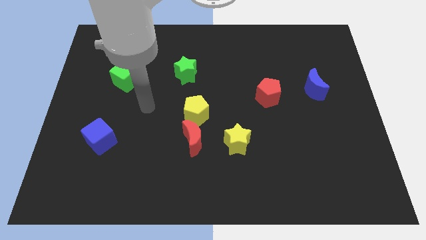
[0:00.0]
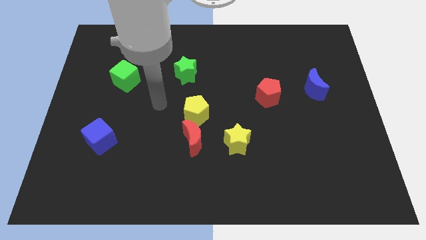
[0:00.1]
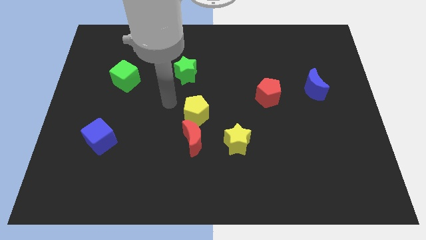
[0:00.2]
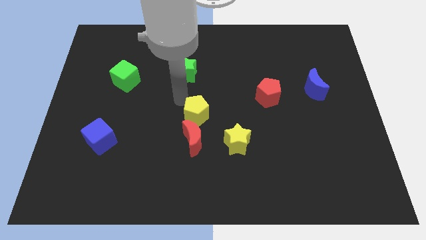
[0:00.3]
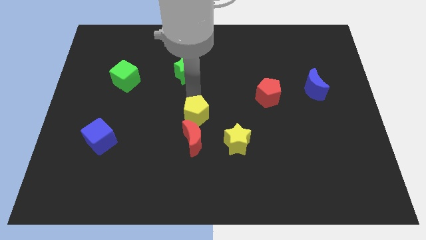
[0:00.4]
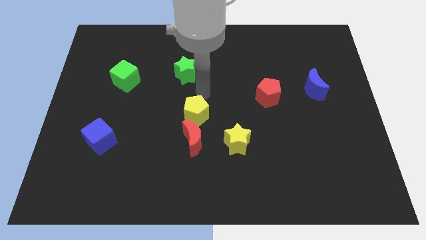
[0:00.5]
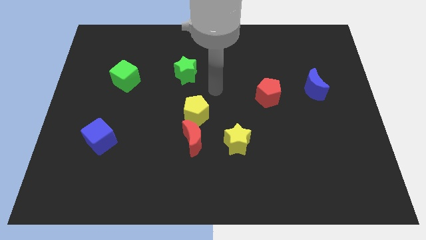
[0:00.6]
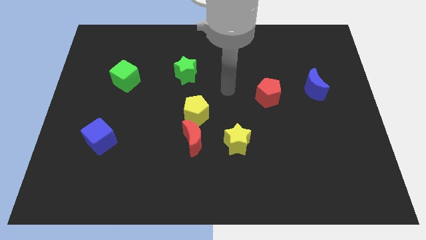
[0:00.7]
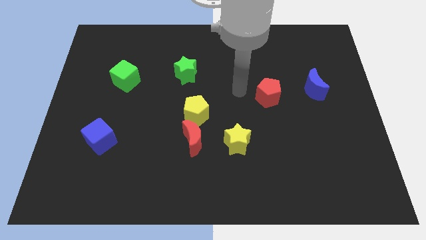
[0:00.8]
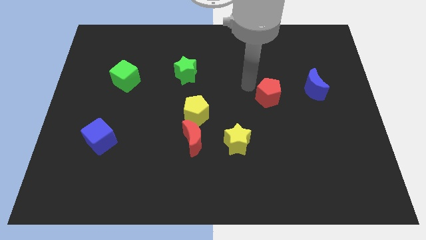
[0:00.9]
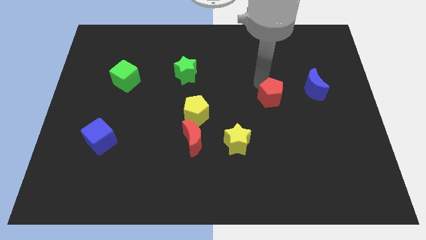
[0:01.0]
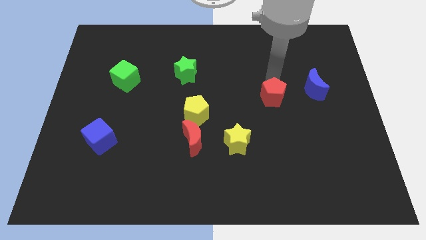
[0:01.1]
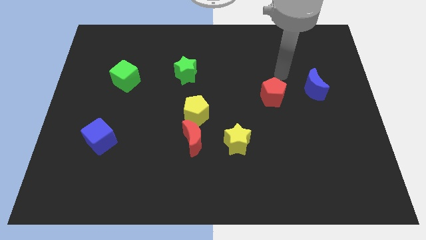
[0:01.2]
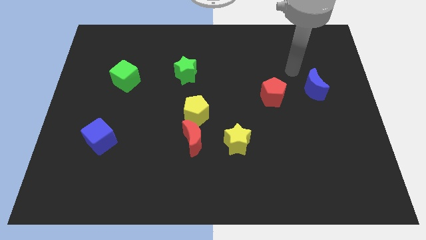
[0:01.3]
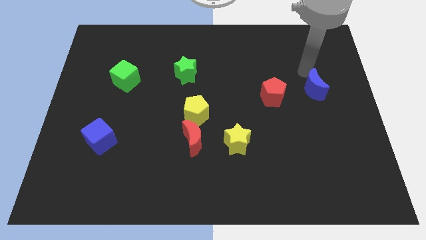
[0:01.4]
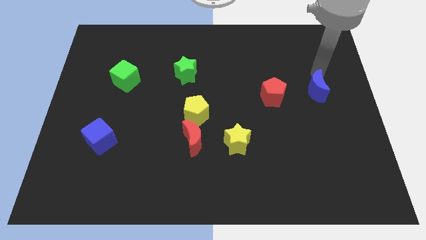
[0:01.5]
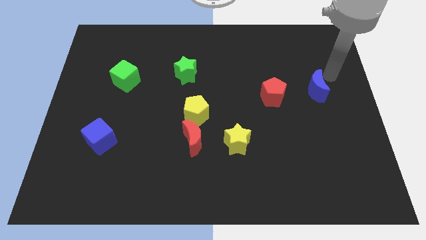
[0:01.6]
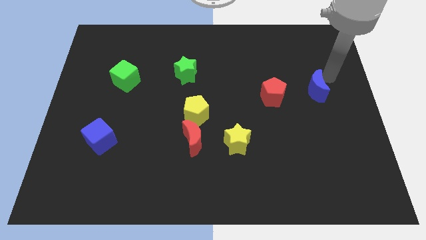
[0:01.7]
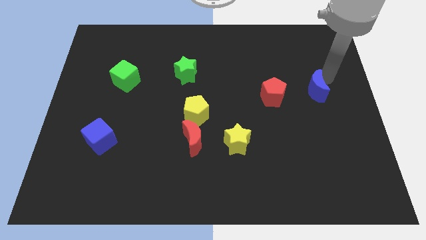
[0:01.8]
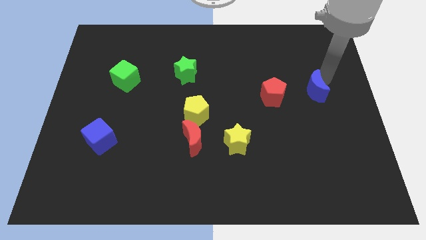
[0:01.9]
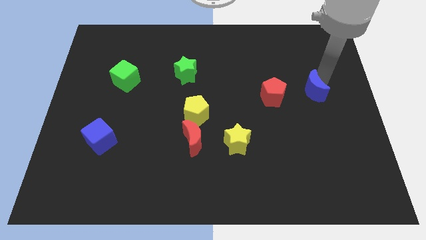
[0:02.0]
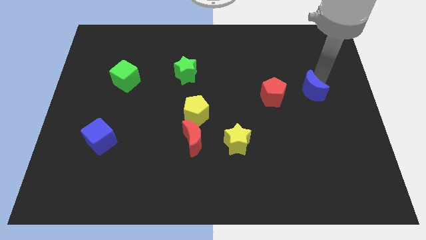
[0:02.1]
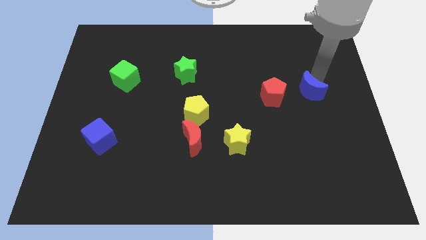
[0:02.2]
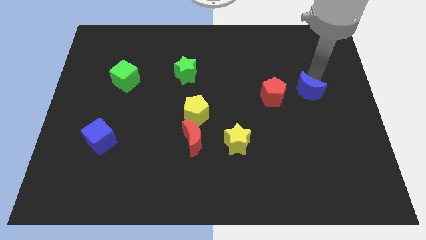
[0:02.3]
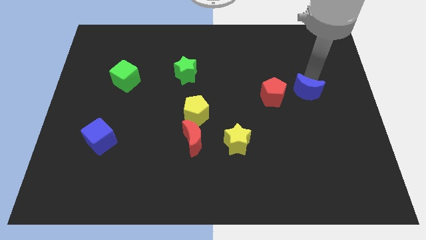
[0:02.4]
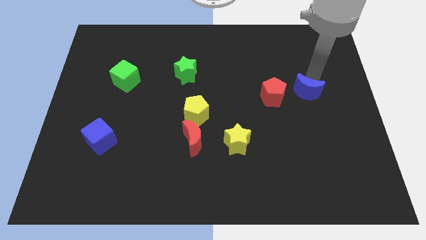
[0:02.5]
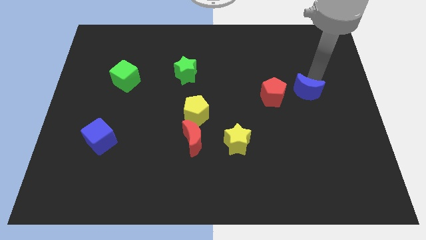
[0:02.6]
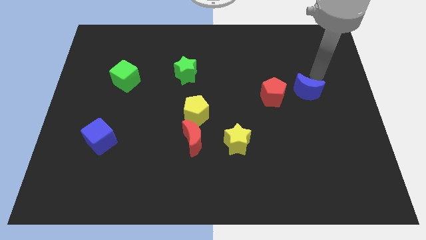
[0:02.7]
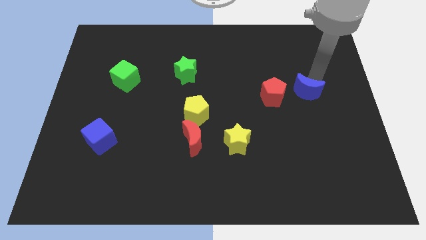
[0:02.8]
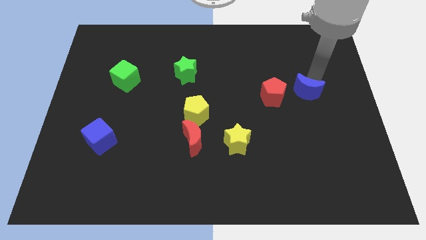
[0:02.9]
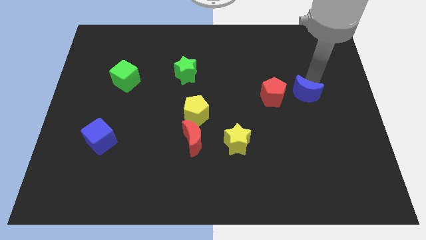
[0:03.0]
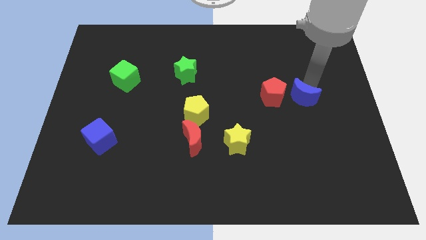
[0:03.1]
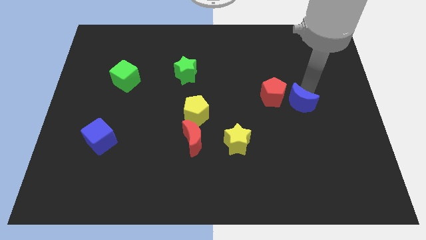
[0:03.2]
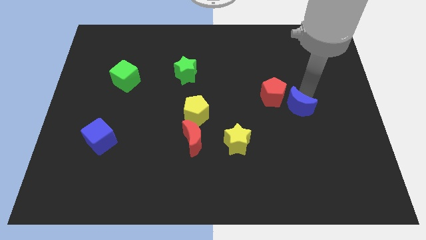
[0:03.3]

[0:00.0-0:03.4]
slide the blue moon somewhat downwards and then left

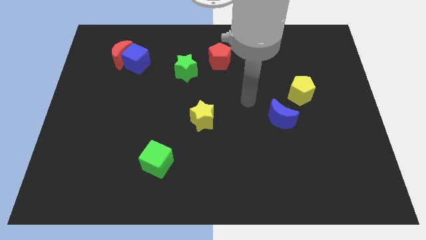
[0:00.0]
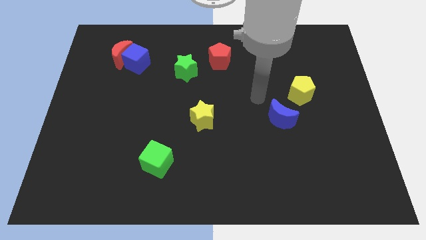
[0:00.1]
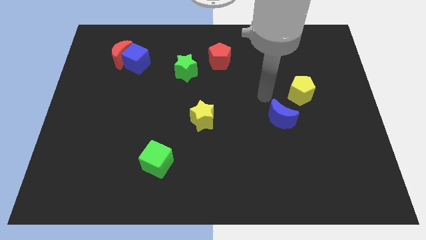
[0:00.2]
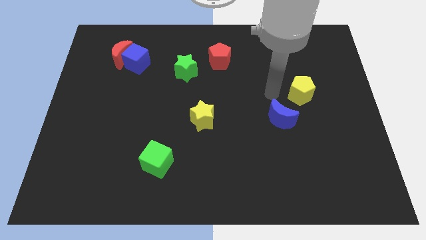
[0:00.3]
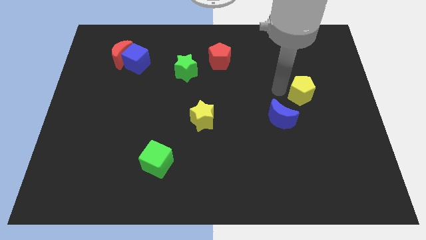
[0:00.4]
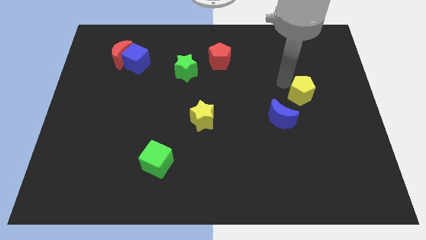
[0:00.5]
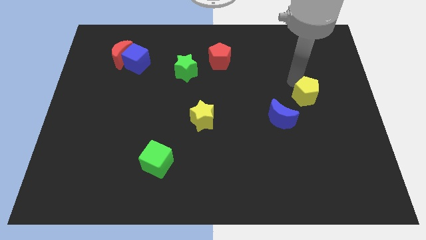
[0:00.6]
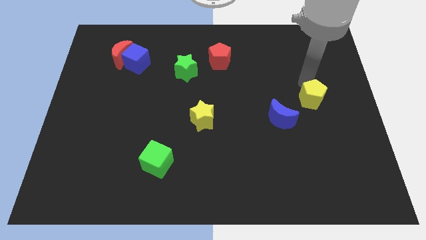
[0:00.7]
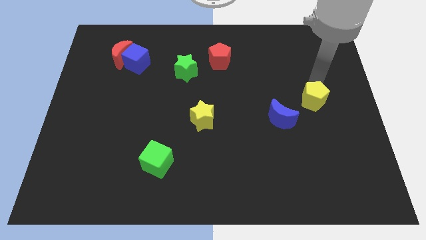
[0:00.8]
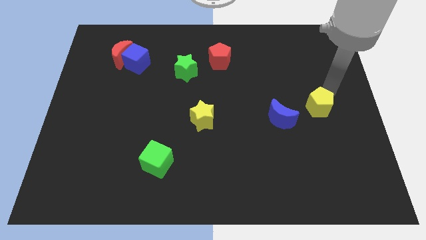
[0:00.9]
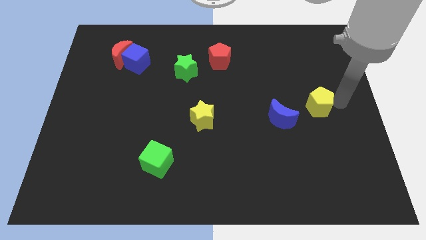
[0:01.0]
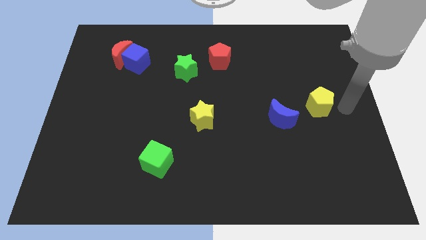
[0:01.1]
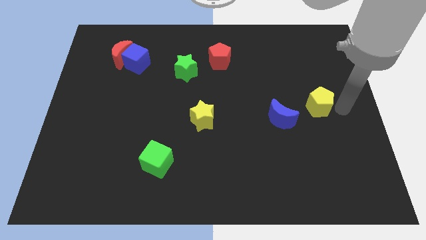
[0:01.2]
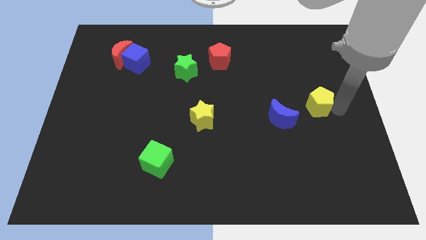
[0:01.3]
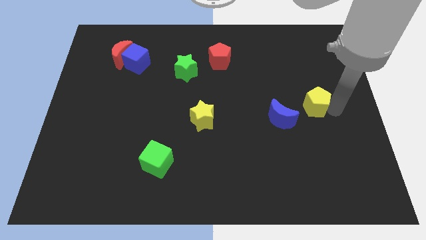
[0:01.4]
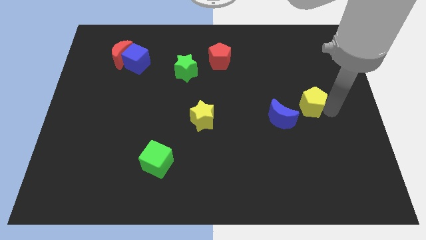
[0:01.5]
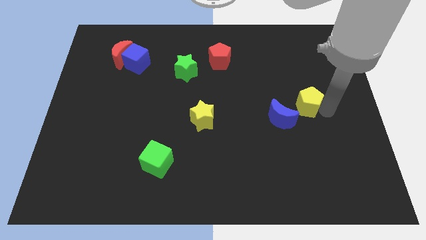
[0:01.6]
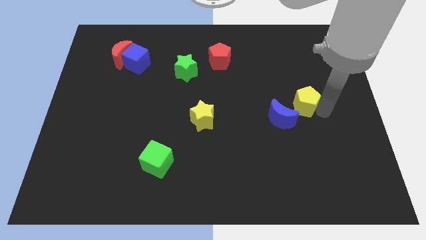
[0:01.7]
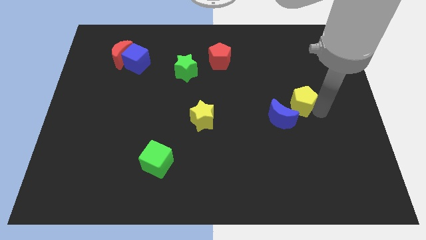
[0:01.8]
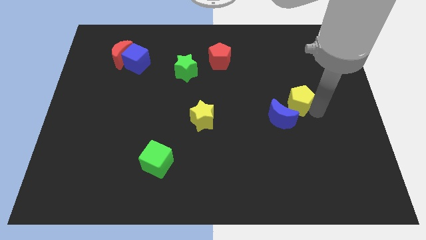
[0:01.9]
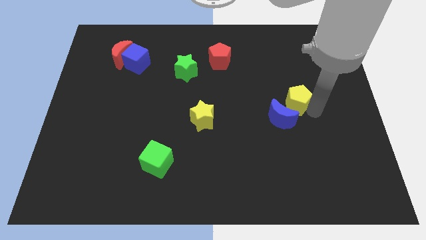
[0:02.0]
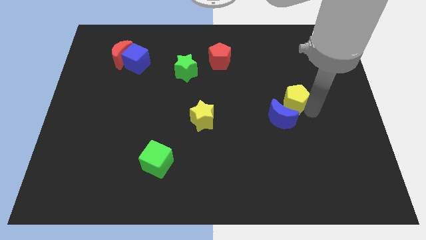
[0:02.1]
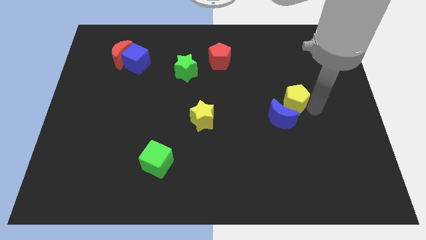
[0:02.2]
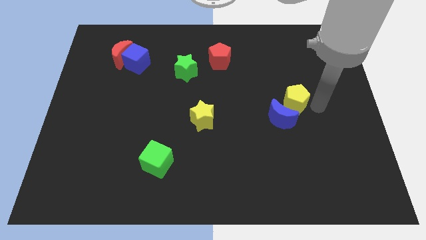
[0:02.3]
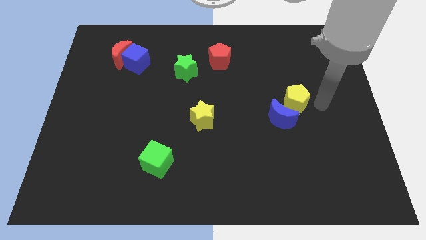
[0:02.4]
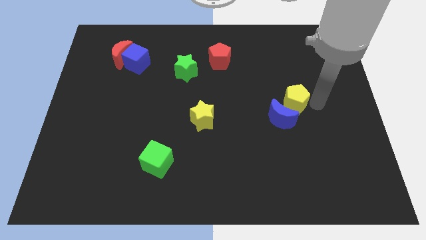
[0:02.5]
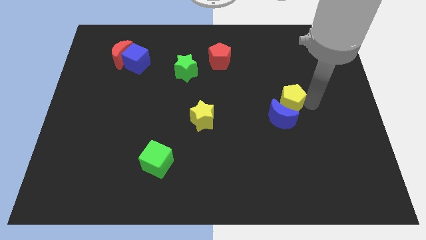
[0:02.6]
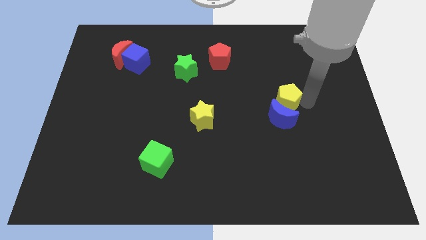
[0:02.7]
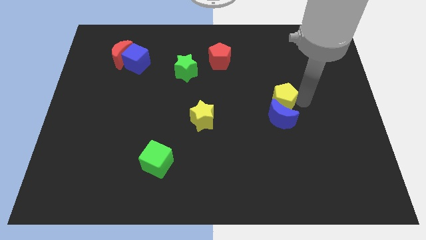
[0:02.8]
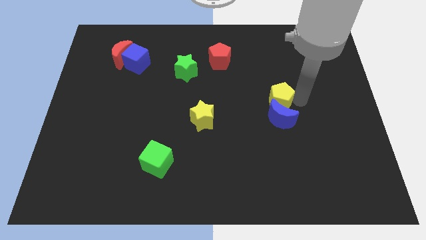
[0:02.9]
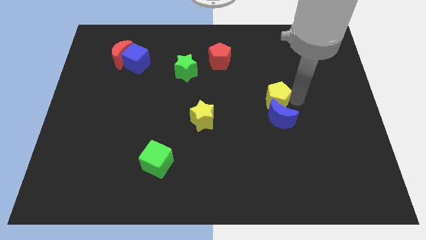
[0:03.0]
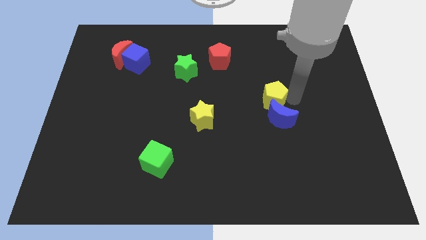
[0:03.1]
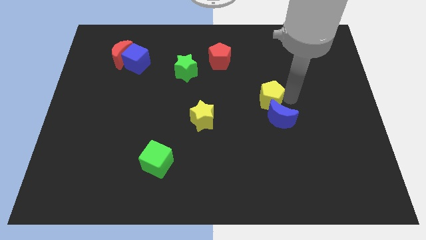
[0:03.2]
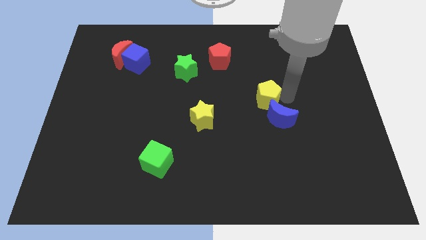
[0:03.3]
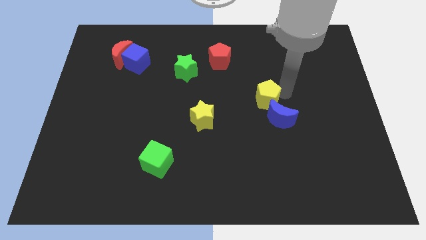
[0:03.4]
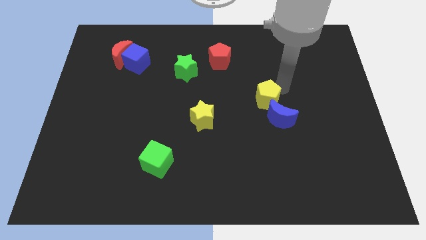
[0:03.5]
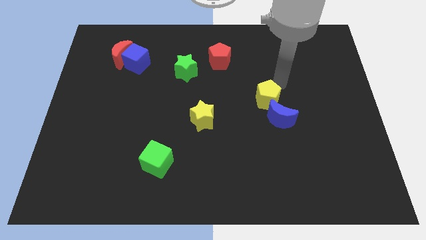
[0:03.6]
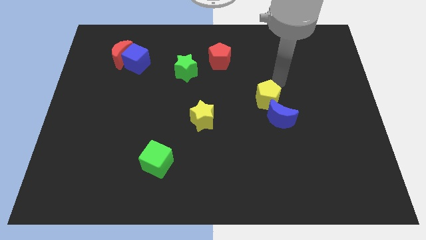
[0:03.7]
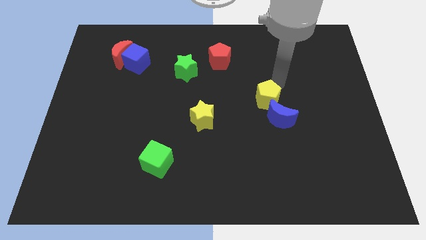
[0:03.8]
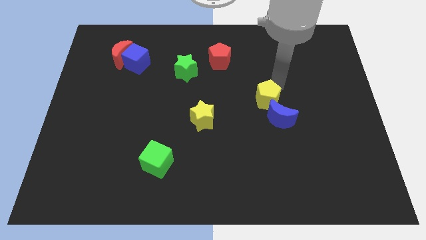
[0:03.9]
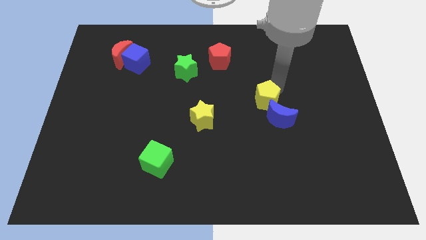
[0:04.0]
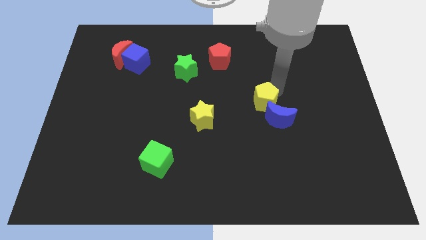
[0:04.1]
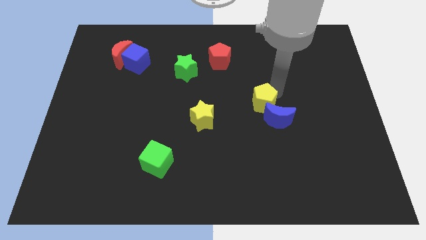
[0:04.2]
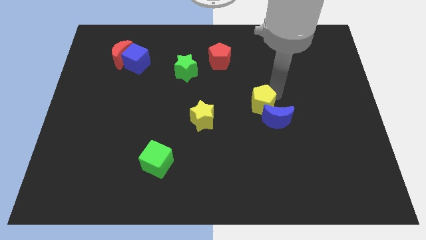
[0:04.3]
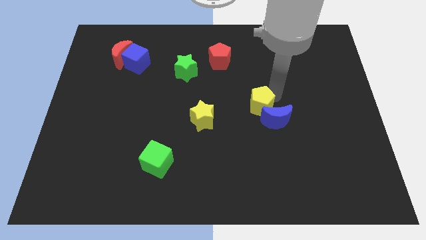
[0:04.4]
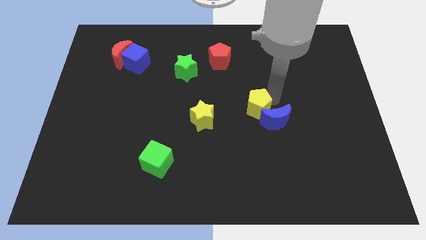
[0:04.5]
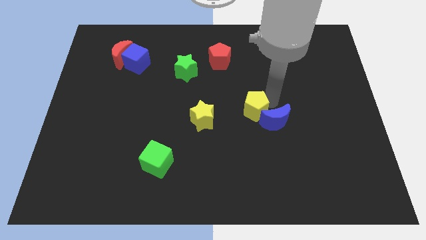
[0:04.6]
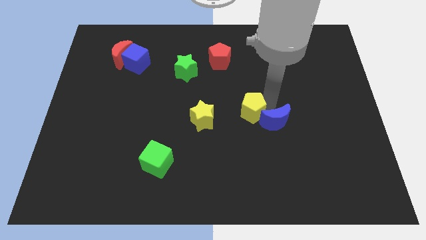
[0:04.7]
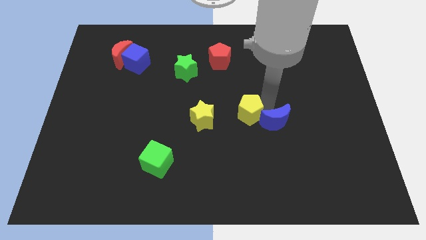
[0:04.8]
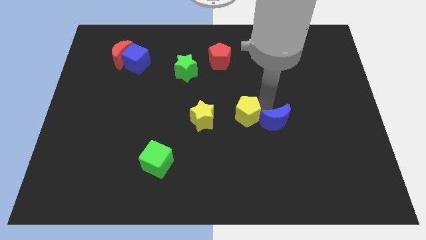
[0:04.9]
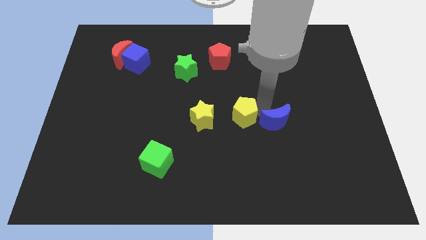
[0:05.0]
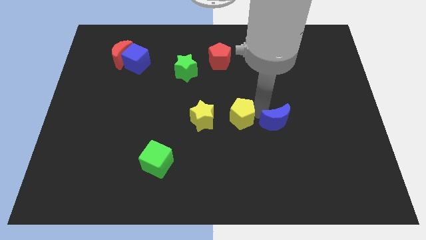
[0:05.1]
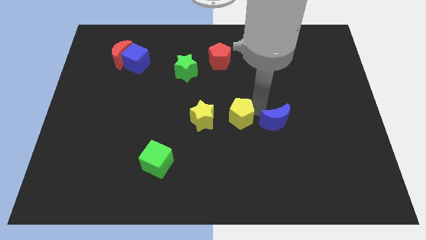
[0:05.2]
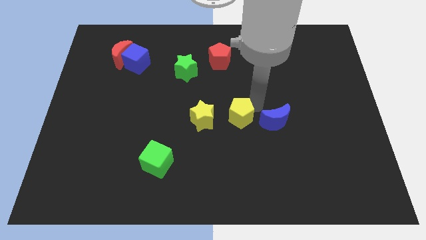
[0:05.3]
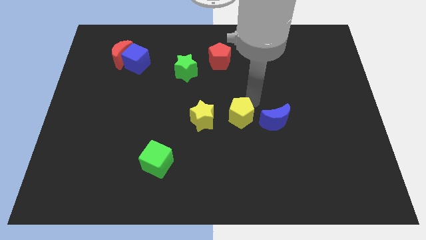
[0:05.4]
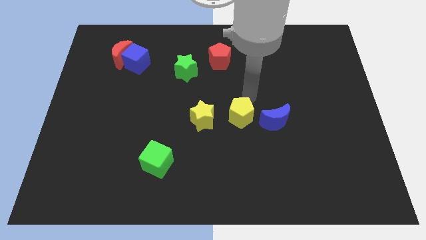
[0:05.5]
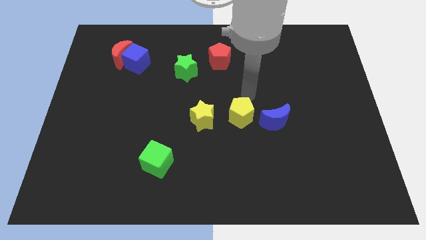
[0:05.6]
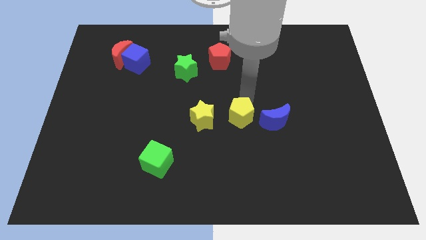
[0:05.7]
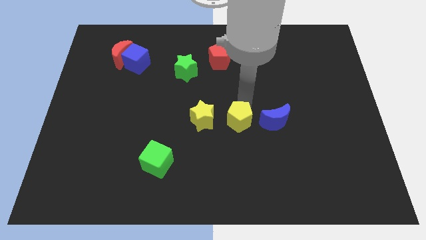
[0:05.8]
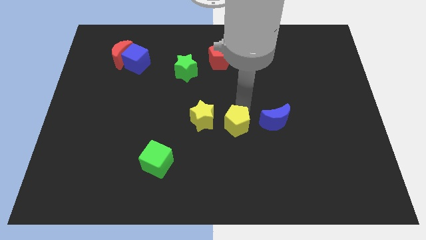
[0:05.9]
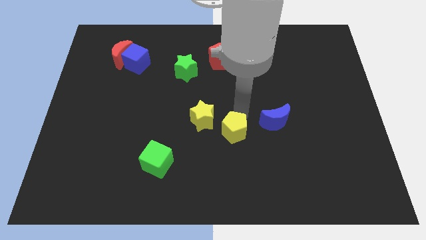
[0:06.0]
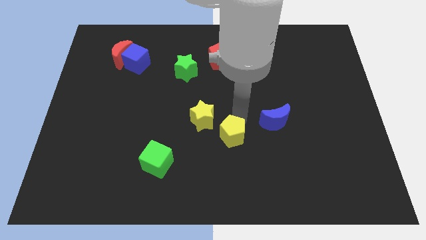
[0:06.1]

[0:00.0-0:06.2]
move the yellow pentagon down and left
